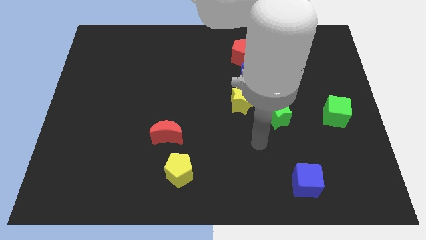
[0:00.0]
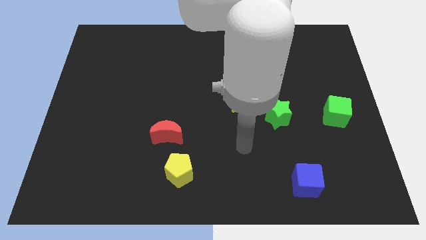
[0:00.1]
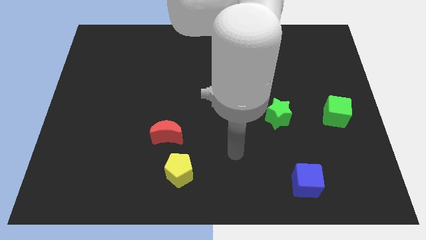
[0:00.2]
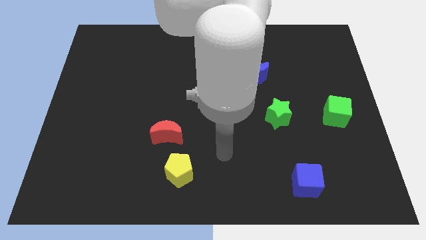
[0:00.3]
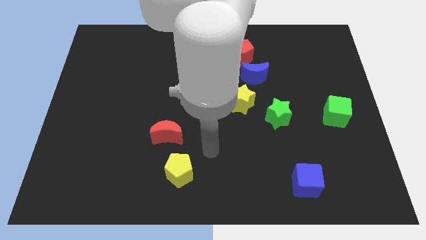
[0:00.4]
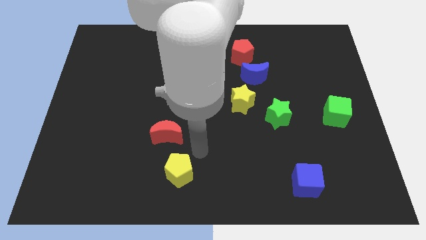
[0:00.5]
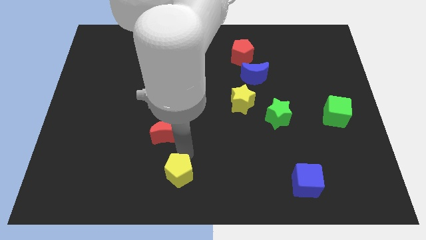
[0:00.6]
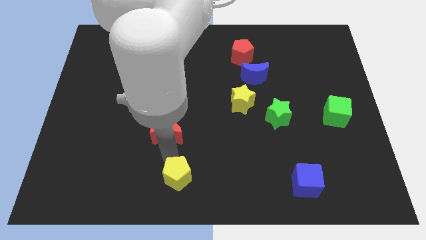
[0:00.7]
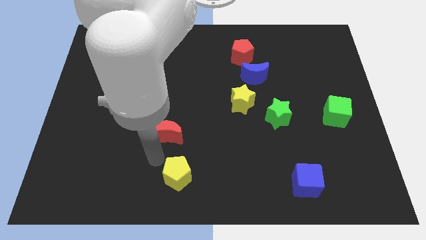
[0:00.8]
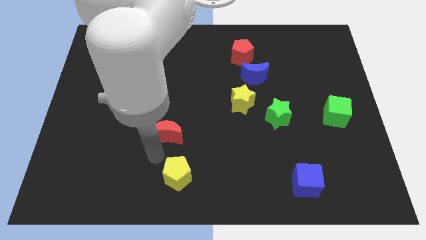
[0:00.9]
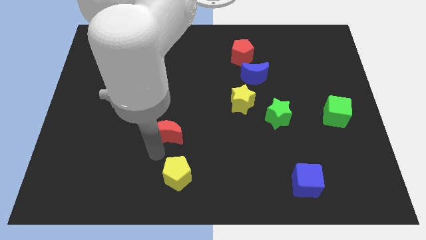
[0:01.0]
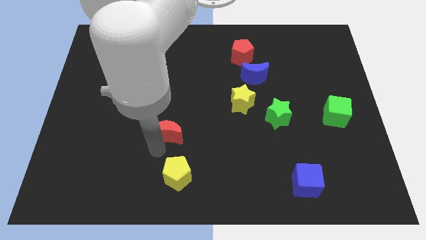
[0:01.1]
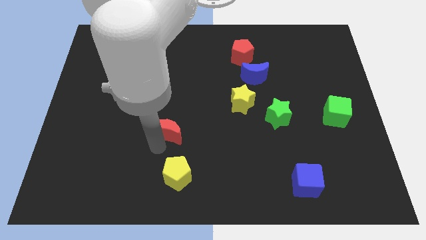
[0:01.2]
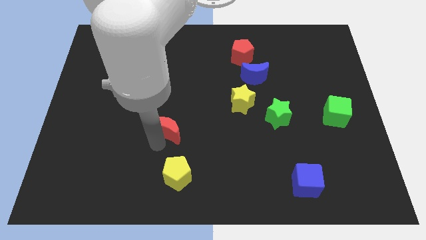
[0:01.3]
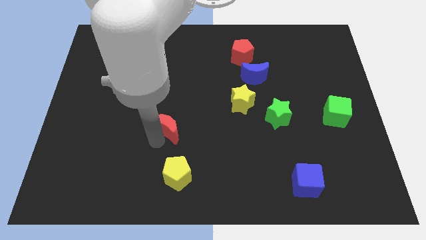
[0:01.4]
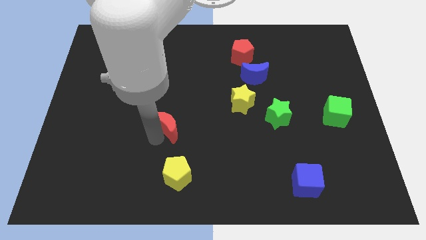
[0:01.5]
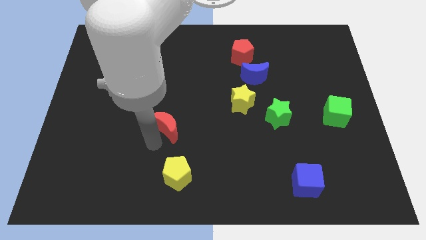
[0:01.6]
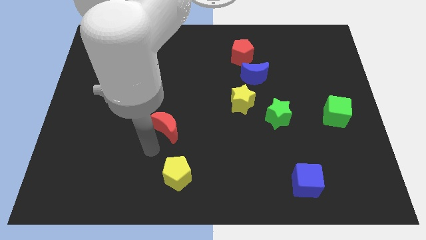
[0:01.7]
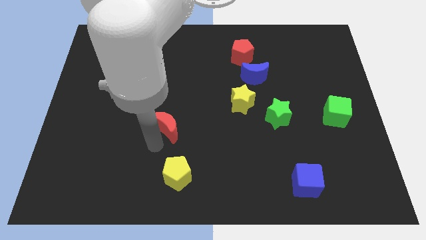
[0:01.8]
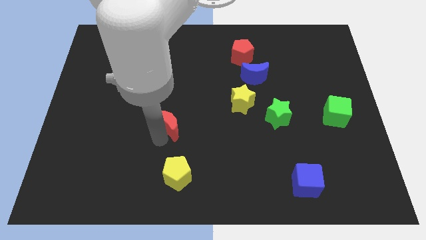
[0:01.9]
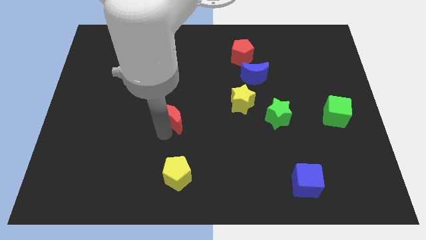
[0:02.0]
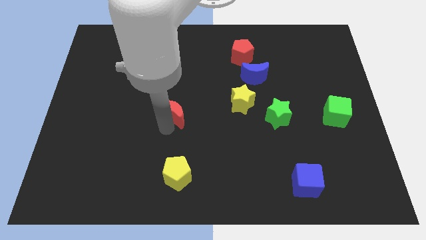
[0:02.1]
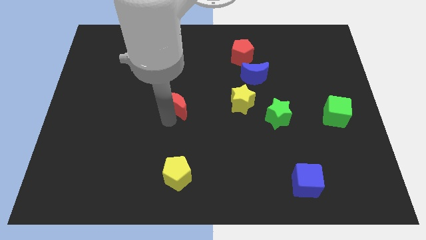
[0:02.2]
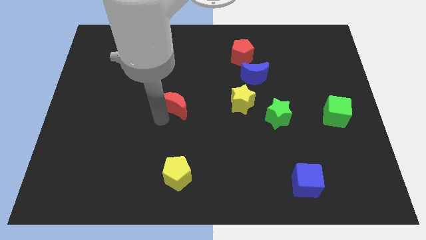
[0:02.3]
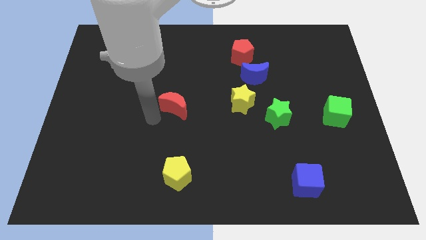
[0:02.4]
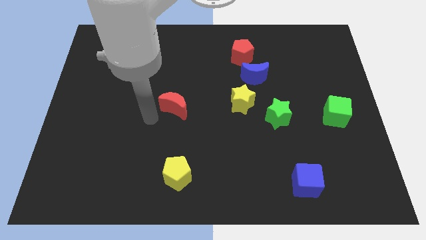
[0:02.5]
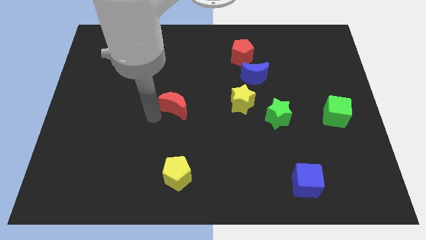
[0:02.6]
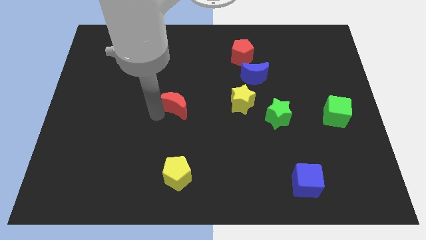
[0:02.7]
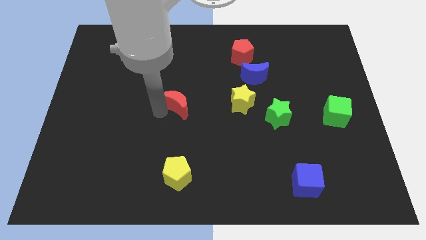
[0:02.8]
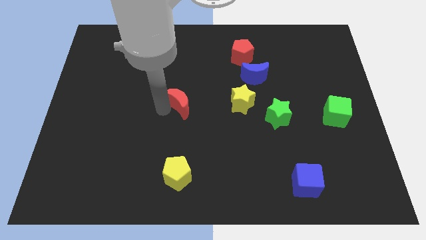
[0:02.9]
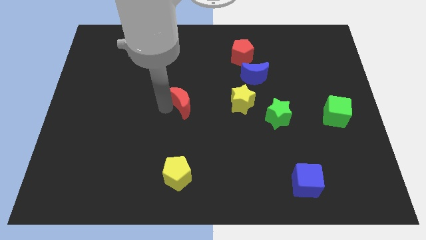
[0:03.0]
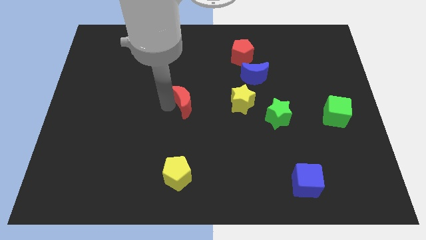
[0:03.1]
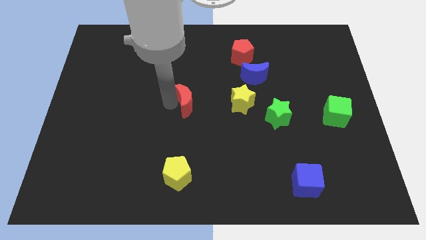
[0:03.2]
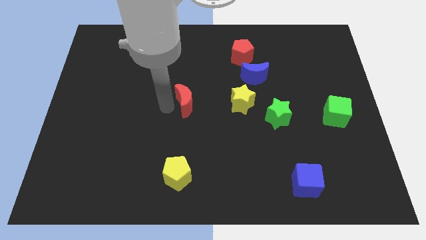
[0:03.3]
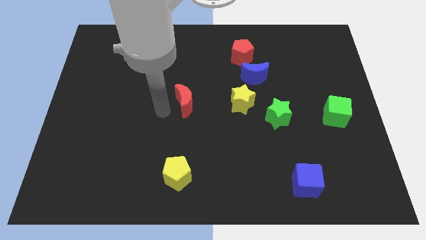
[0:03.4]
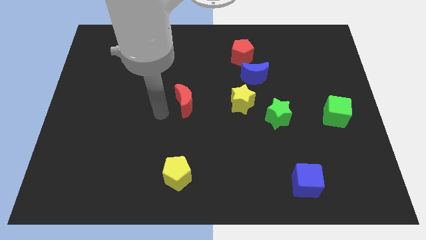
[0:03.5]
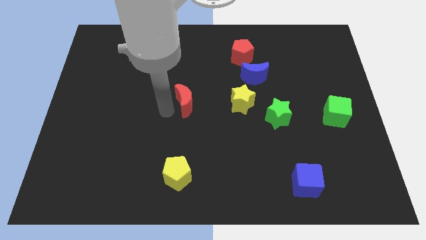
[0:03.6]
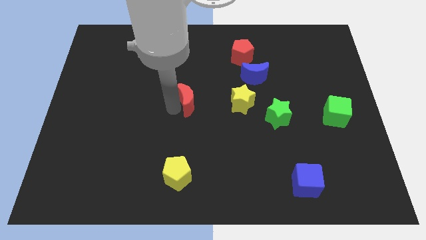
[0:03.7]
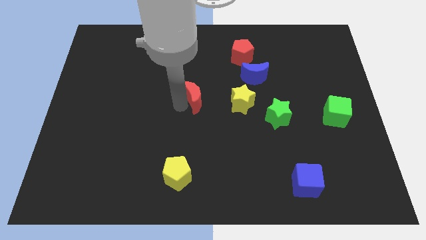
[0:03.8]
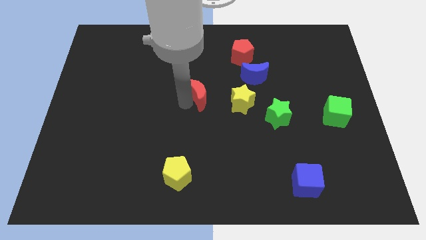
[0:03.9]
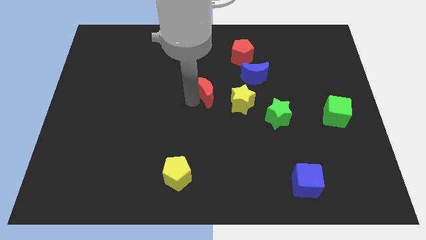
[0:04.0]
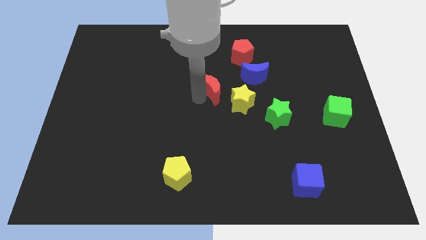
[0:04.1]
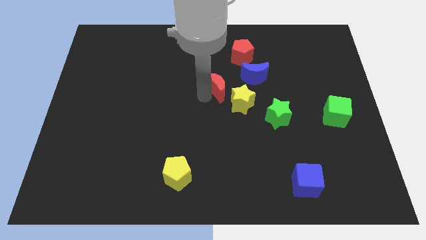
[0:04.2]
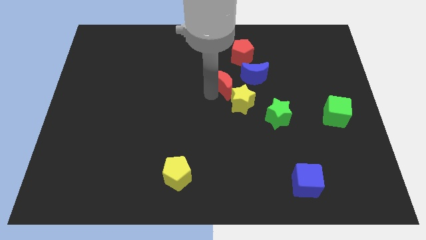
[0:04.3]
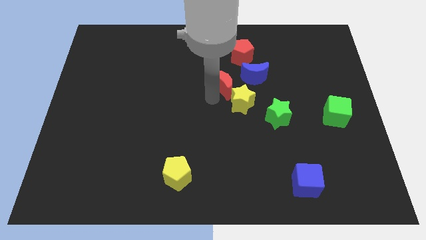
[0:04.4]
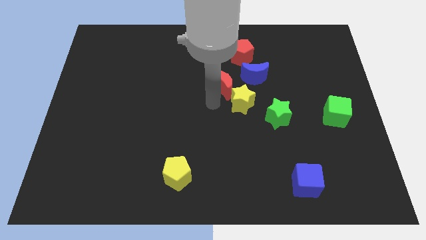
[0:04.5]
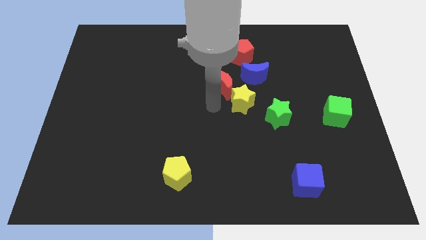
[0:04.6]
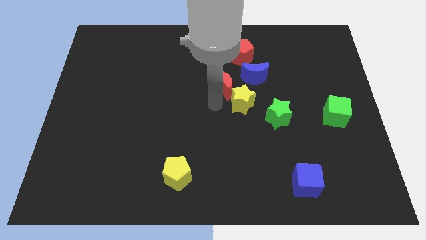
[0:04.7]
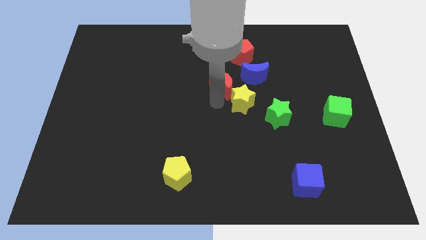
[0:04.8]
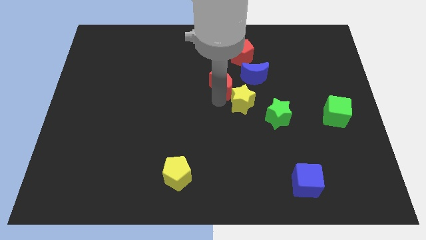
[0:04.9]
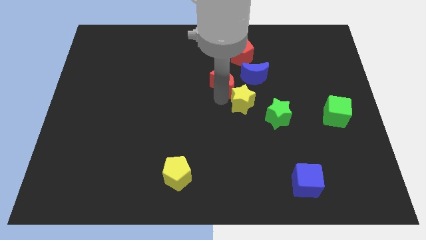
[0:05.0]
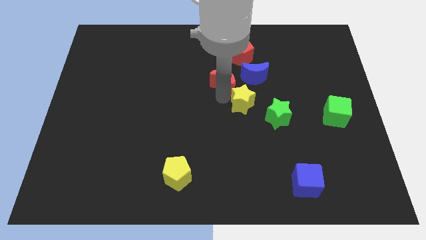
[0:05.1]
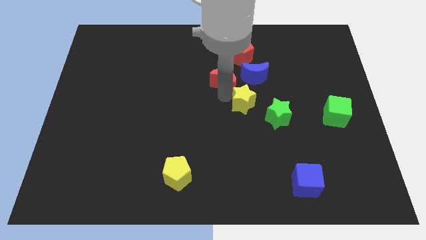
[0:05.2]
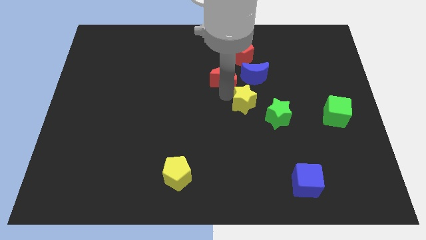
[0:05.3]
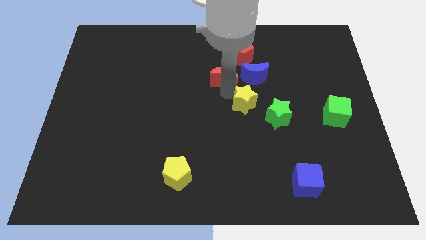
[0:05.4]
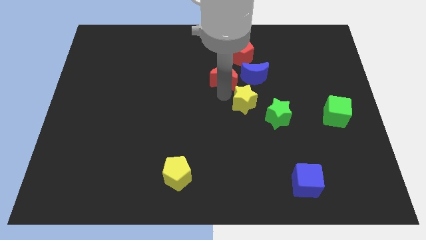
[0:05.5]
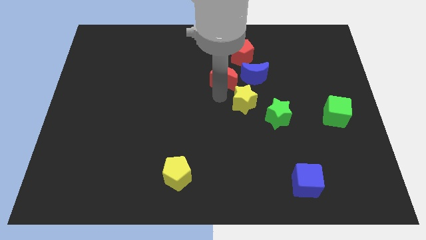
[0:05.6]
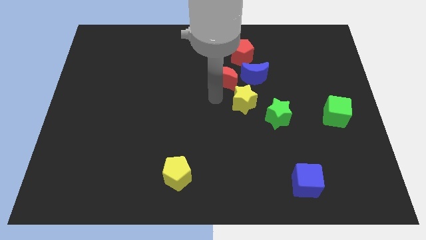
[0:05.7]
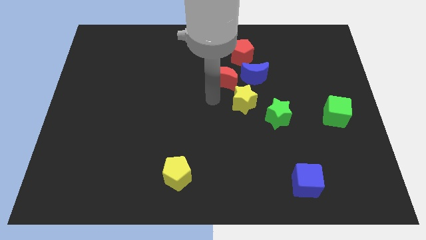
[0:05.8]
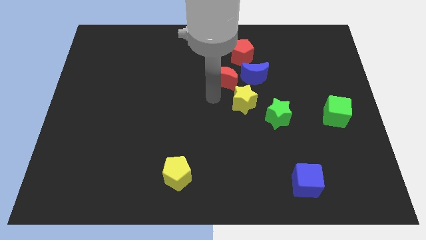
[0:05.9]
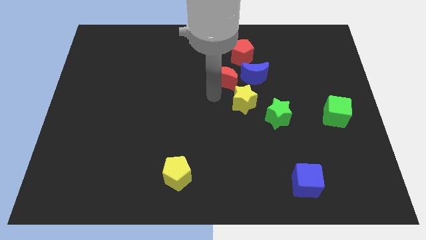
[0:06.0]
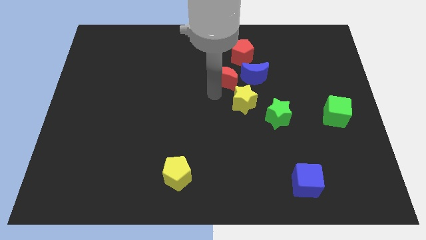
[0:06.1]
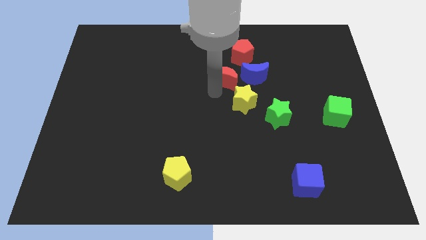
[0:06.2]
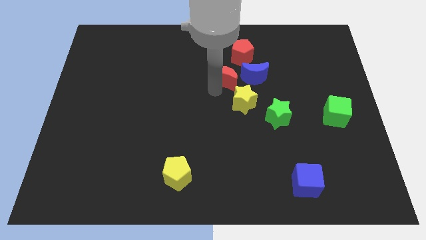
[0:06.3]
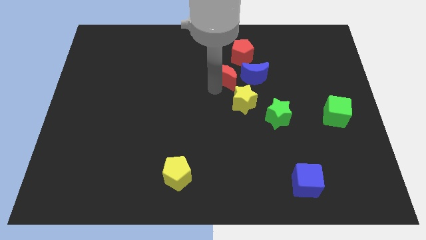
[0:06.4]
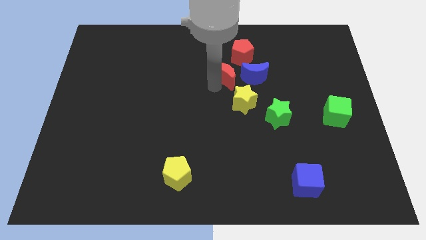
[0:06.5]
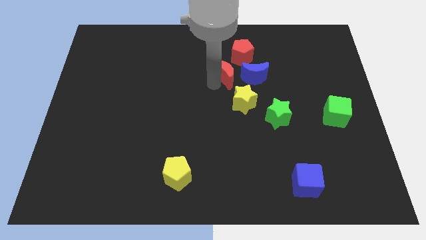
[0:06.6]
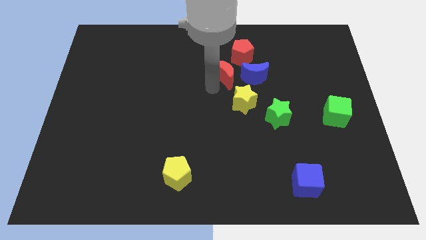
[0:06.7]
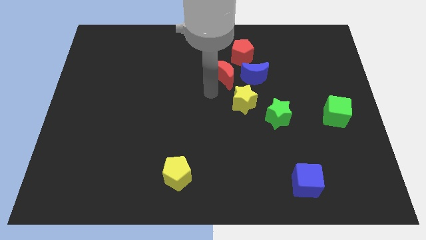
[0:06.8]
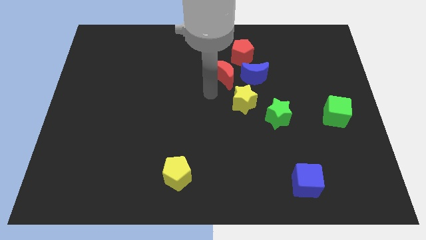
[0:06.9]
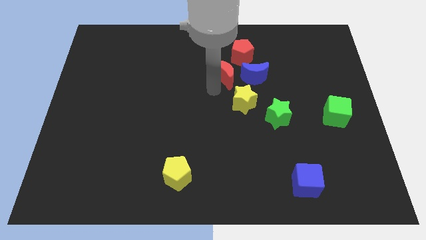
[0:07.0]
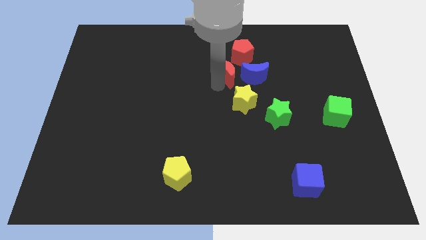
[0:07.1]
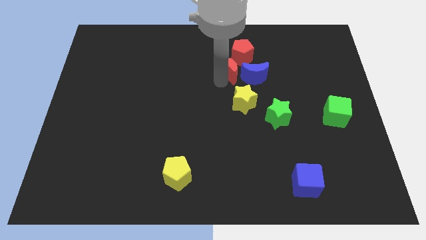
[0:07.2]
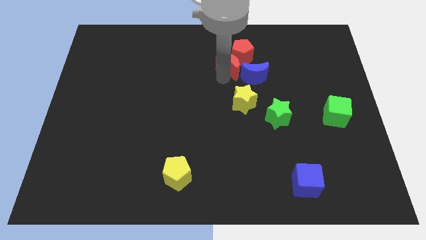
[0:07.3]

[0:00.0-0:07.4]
move the red moon next to the red pentagon

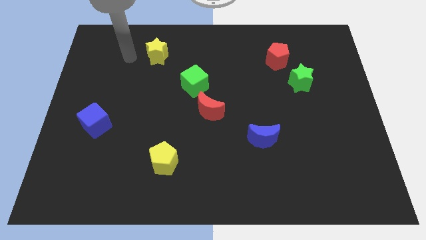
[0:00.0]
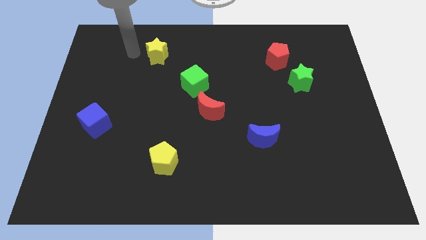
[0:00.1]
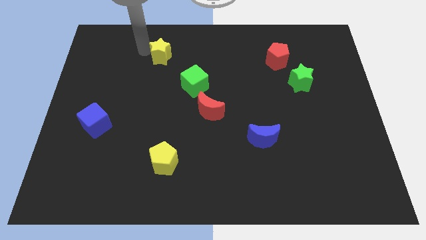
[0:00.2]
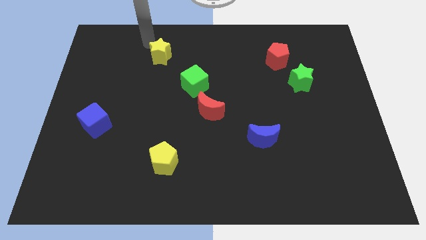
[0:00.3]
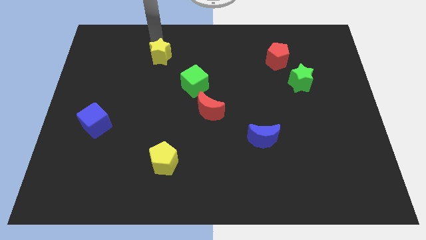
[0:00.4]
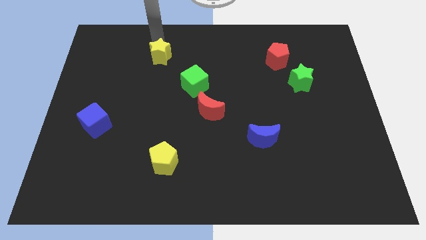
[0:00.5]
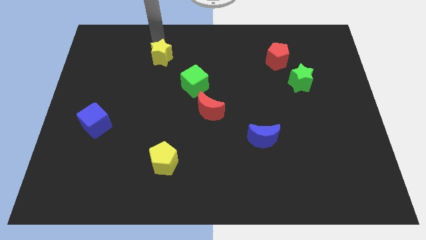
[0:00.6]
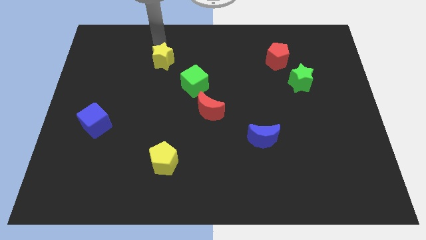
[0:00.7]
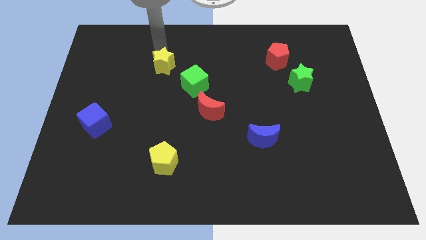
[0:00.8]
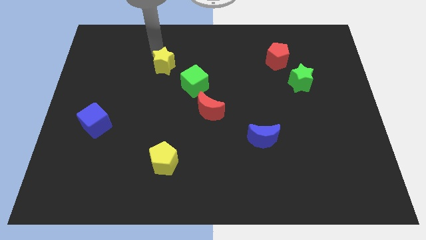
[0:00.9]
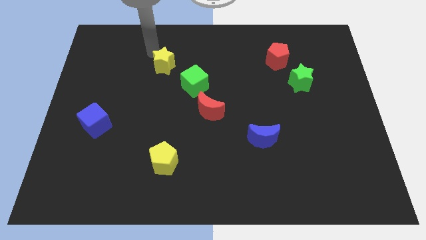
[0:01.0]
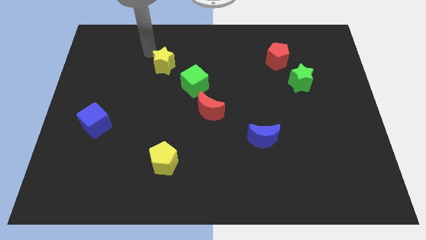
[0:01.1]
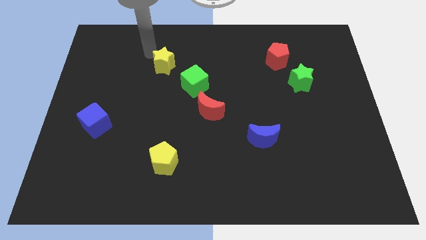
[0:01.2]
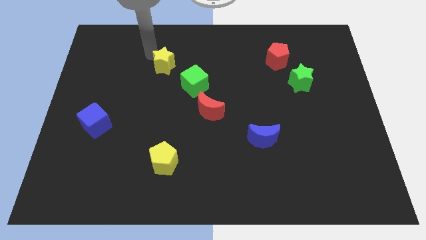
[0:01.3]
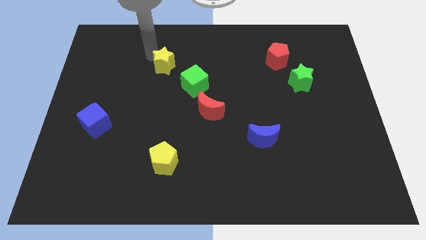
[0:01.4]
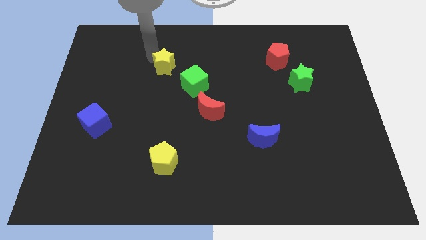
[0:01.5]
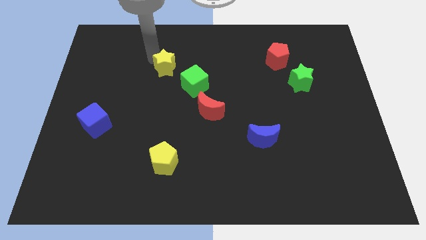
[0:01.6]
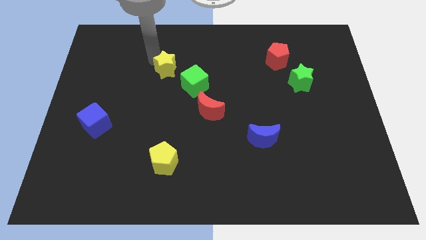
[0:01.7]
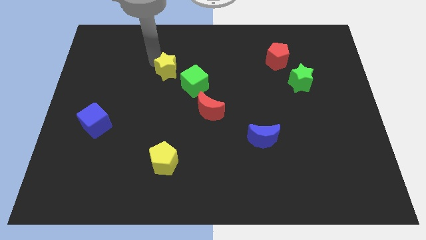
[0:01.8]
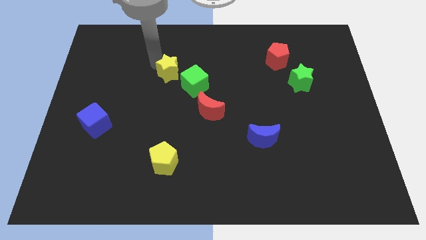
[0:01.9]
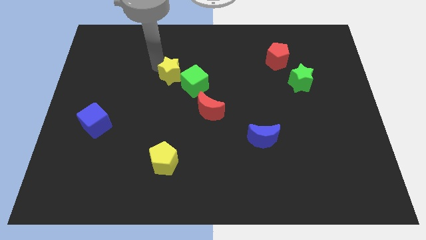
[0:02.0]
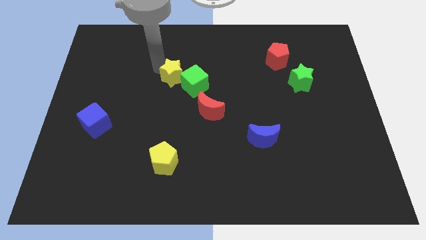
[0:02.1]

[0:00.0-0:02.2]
move the yellow star next to the green cube
